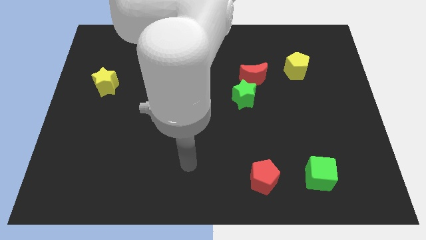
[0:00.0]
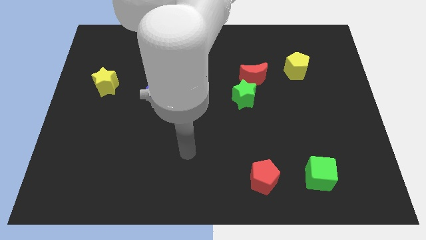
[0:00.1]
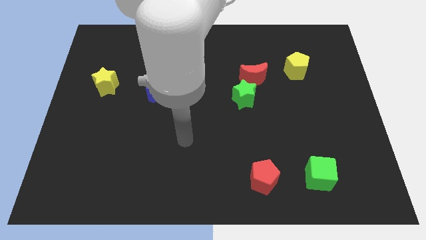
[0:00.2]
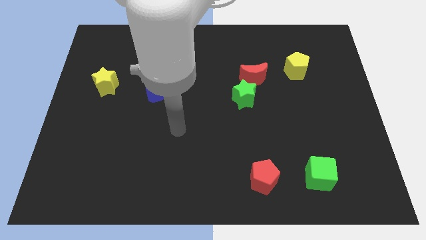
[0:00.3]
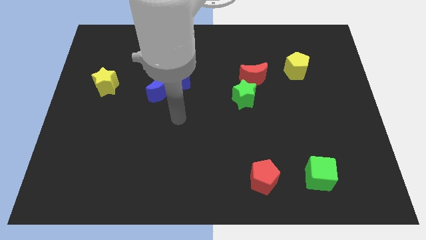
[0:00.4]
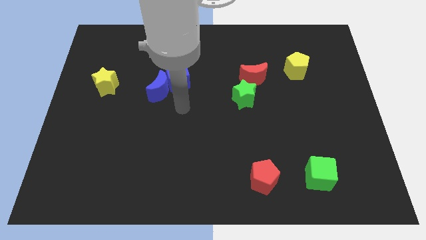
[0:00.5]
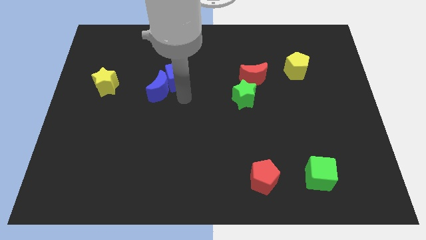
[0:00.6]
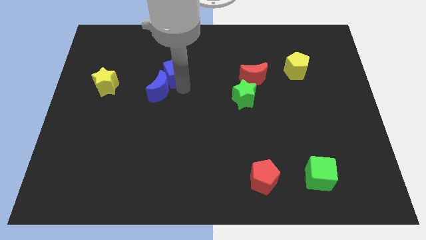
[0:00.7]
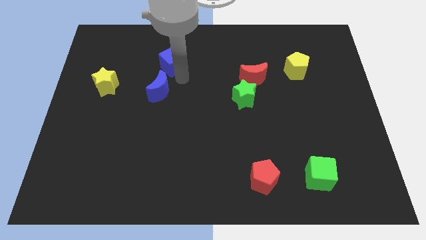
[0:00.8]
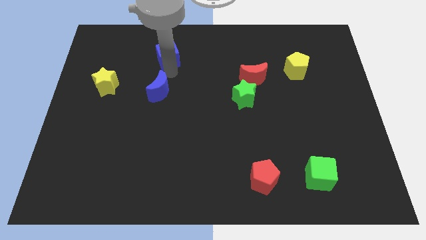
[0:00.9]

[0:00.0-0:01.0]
separate the blue moon from the blue cube

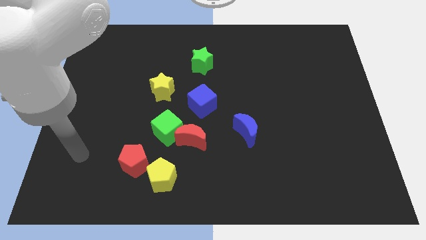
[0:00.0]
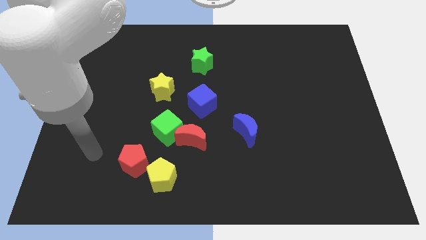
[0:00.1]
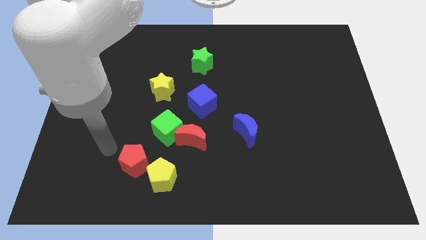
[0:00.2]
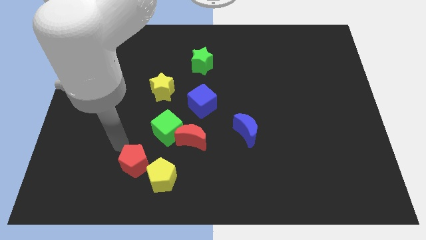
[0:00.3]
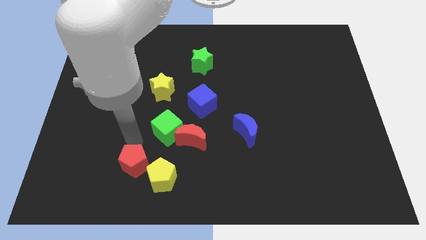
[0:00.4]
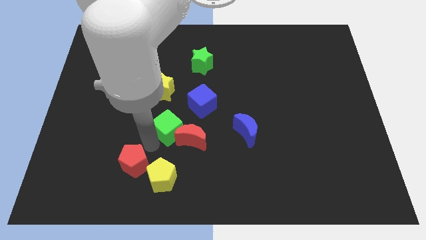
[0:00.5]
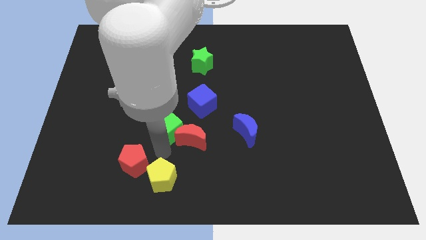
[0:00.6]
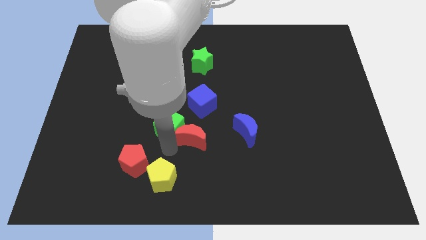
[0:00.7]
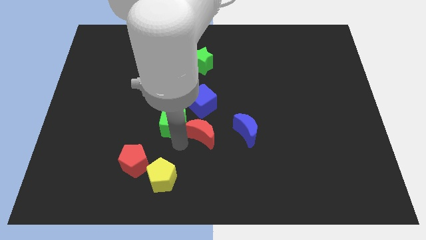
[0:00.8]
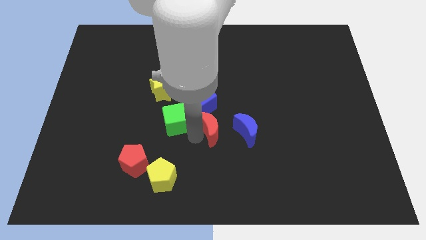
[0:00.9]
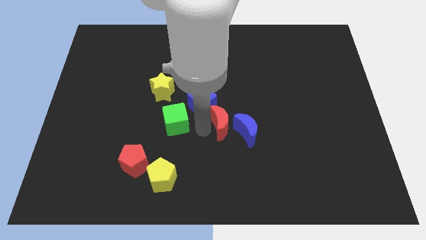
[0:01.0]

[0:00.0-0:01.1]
separate the green cube from the red moon

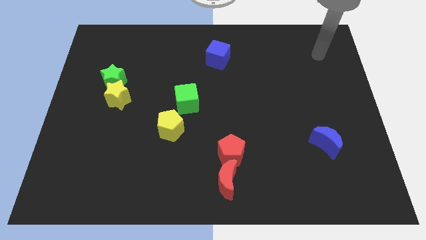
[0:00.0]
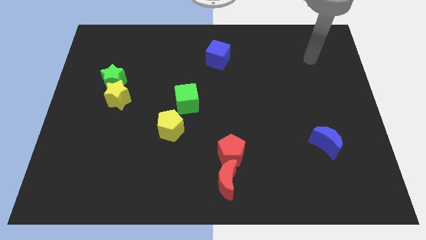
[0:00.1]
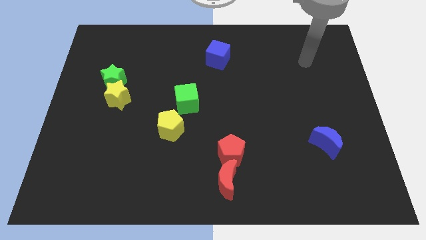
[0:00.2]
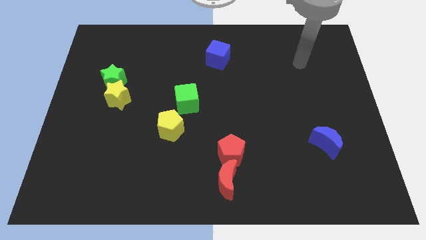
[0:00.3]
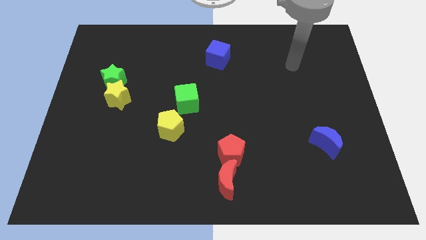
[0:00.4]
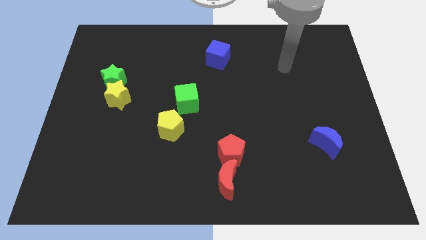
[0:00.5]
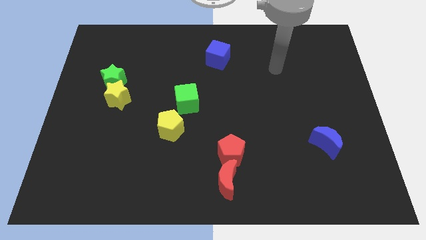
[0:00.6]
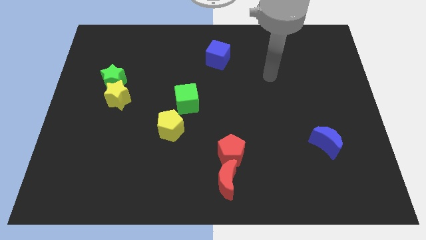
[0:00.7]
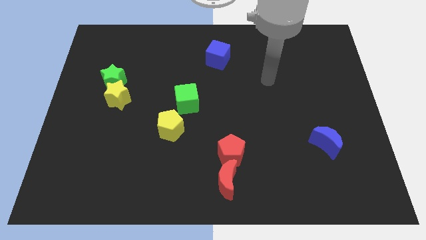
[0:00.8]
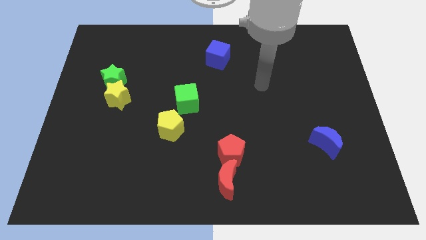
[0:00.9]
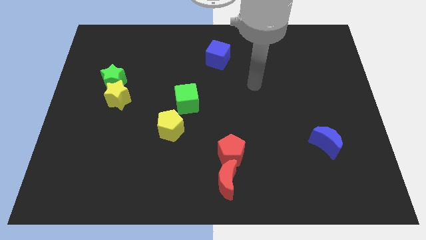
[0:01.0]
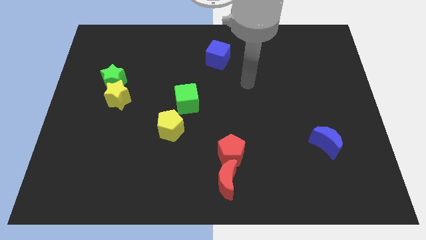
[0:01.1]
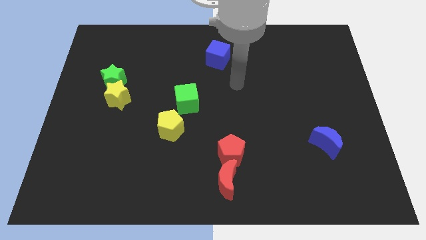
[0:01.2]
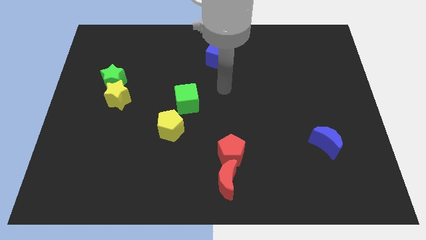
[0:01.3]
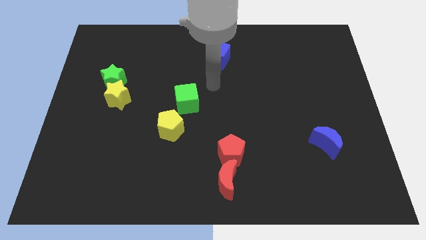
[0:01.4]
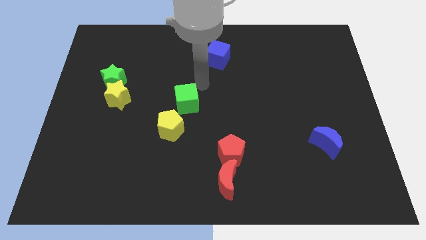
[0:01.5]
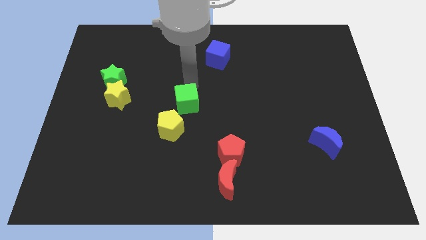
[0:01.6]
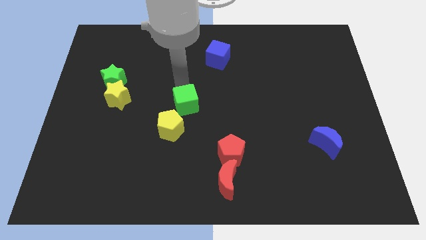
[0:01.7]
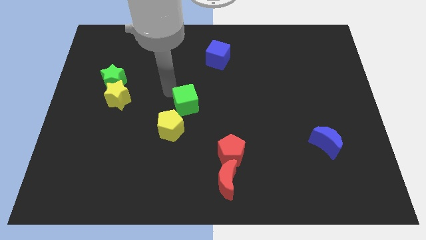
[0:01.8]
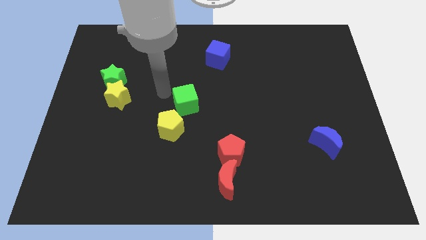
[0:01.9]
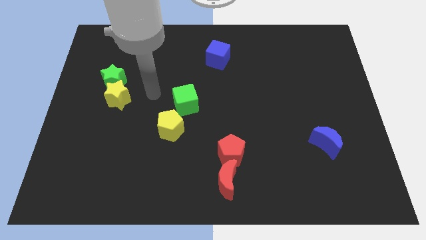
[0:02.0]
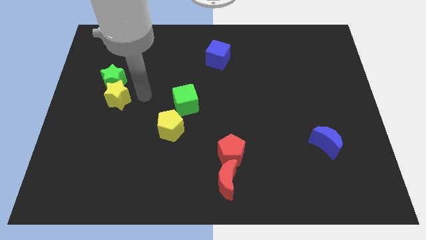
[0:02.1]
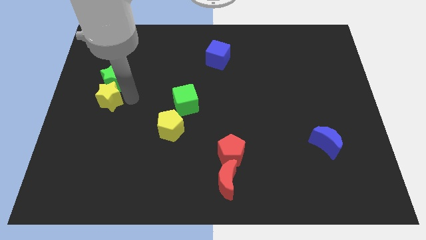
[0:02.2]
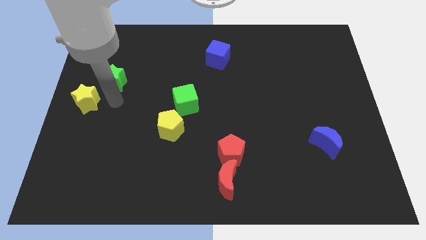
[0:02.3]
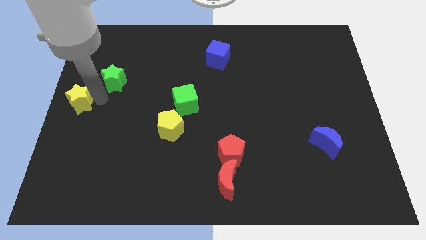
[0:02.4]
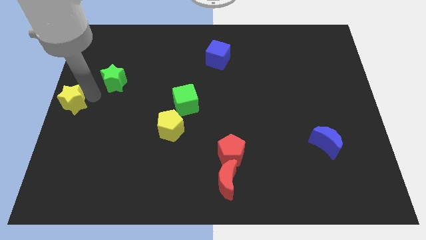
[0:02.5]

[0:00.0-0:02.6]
pull the green star apart from the yellow star

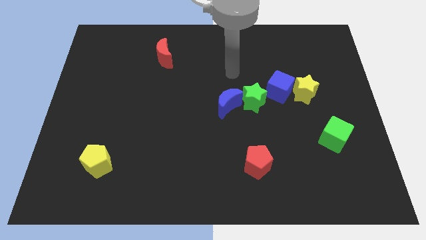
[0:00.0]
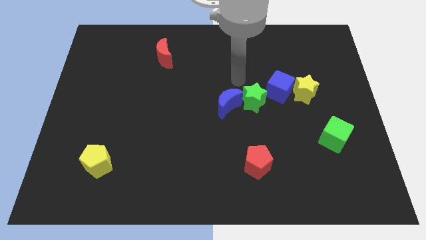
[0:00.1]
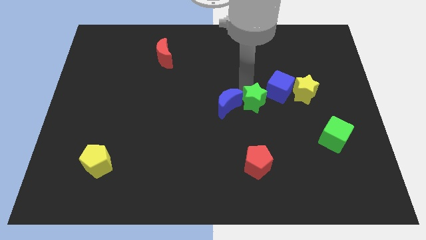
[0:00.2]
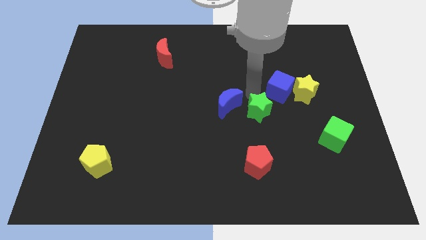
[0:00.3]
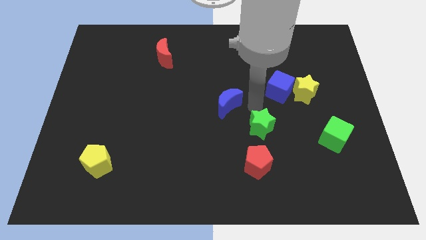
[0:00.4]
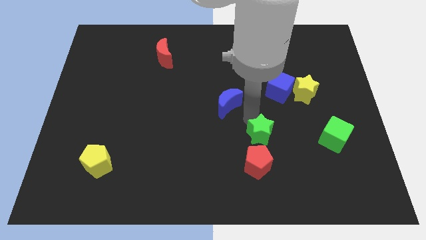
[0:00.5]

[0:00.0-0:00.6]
separate the blue moon from the green star

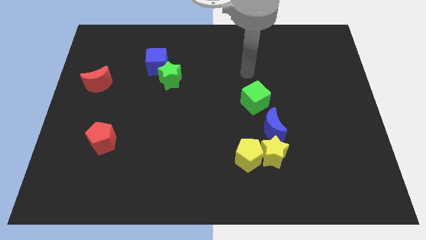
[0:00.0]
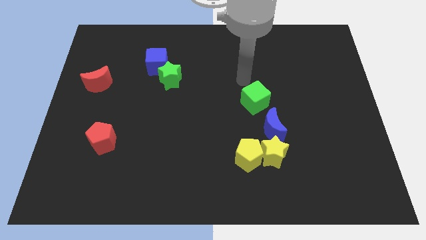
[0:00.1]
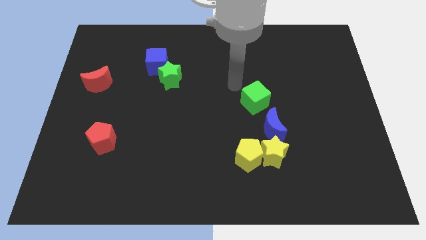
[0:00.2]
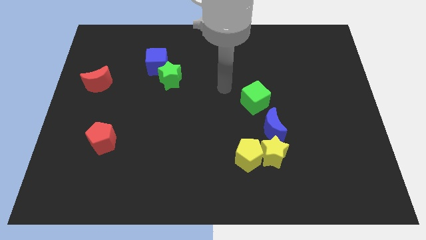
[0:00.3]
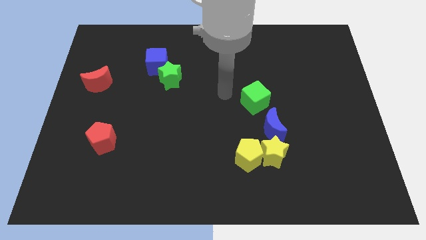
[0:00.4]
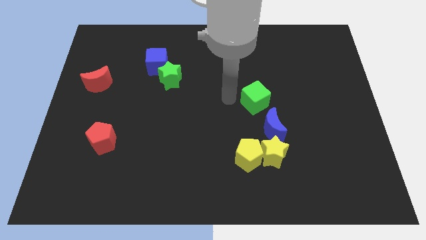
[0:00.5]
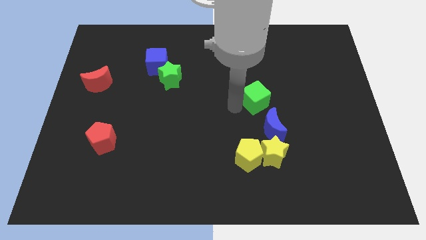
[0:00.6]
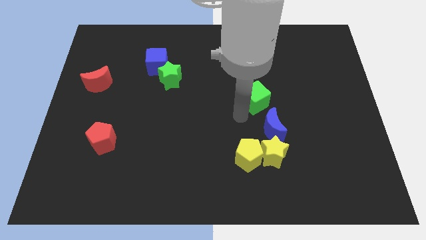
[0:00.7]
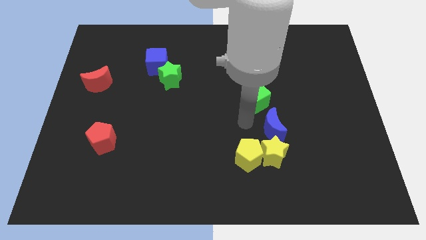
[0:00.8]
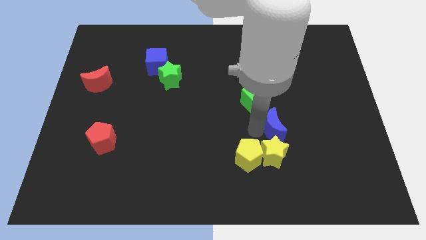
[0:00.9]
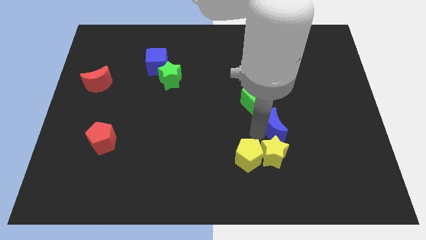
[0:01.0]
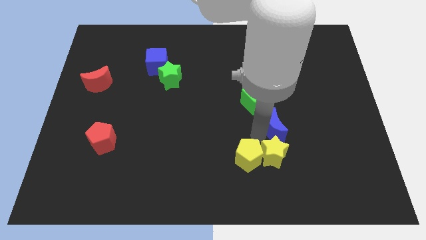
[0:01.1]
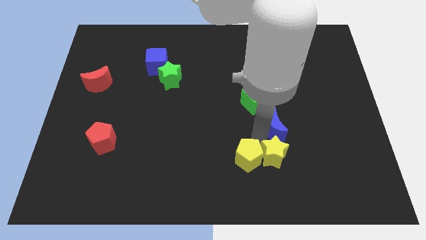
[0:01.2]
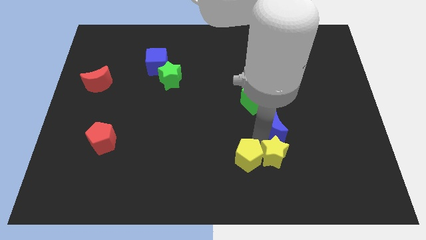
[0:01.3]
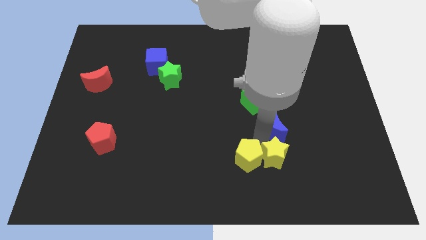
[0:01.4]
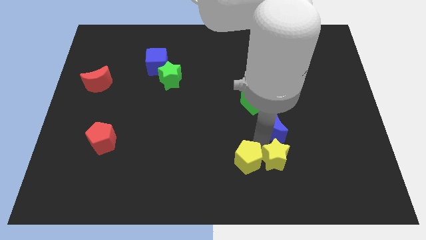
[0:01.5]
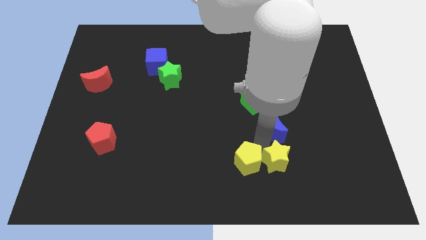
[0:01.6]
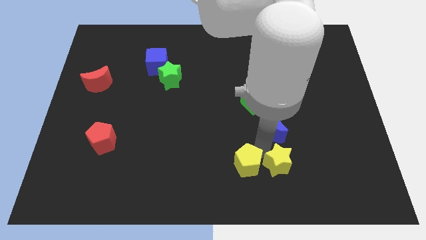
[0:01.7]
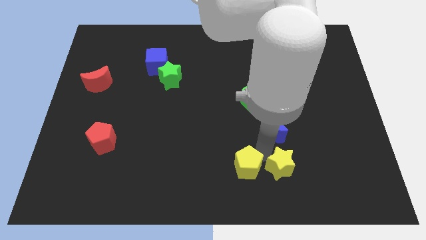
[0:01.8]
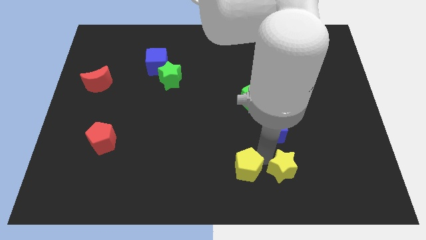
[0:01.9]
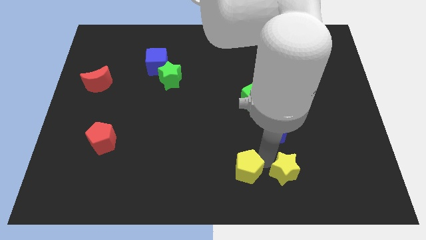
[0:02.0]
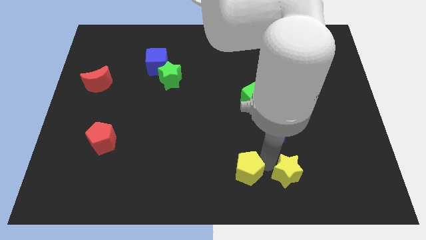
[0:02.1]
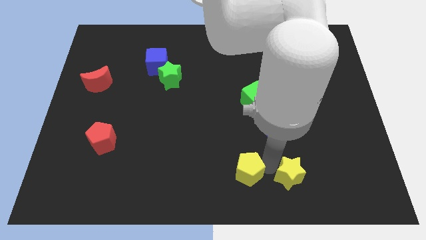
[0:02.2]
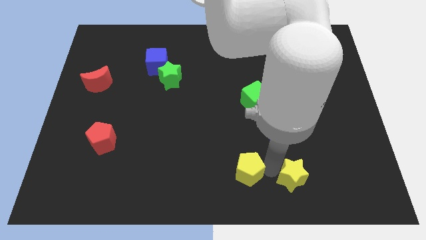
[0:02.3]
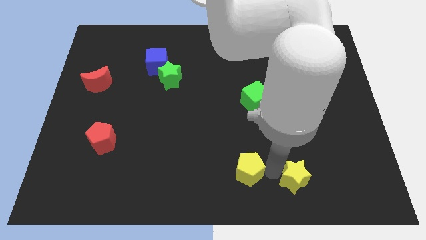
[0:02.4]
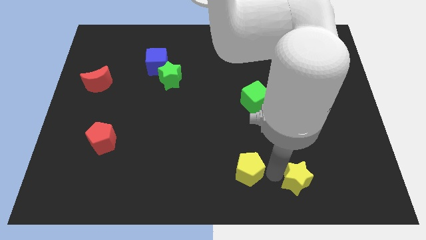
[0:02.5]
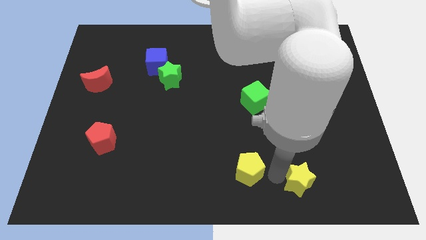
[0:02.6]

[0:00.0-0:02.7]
separate the yellow star from the yellow pentagon and blue moon

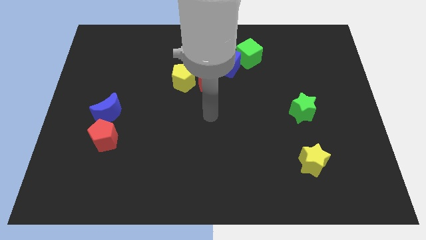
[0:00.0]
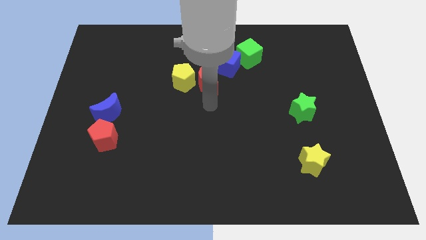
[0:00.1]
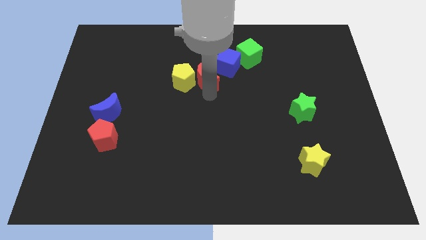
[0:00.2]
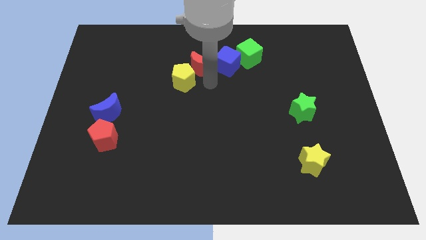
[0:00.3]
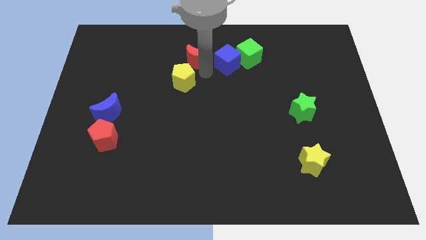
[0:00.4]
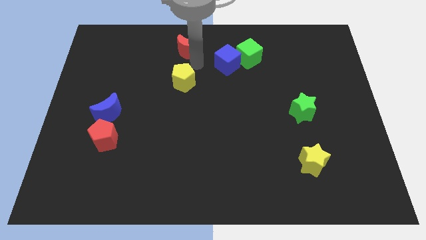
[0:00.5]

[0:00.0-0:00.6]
separate the yellow pentagon from the red moon

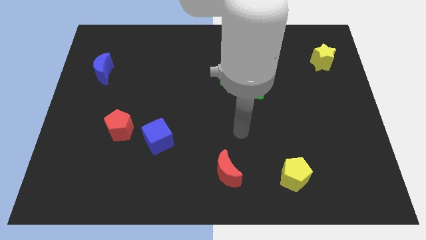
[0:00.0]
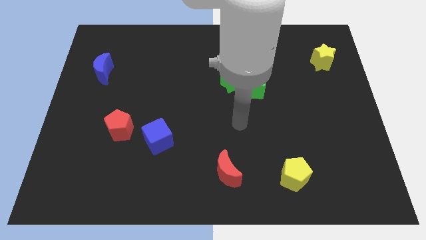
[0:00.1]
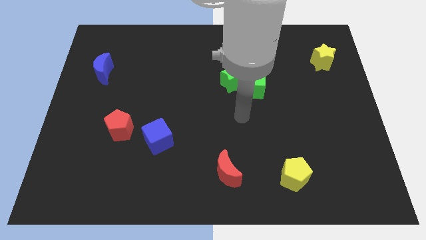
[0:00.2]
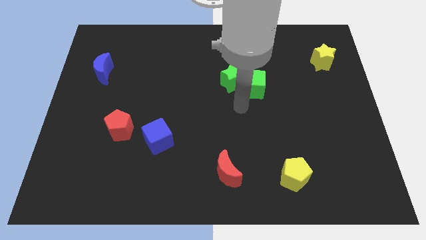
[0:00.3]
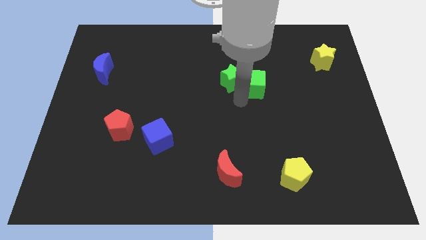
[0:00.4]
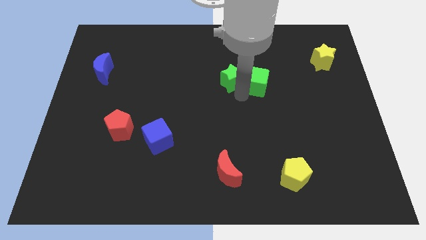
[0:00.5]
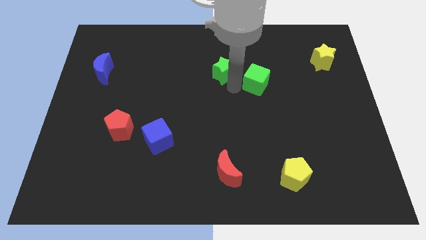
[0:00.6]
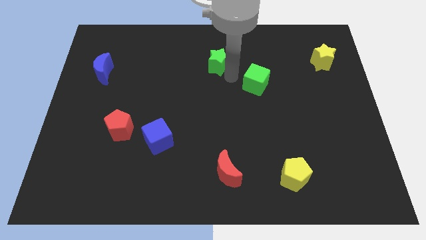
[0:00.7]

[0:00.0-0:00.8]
pull the green cube apart from the green star
